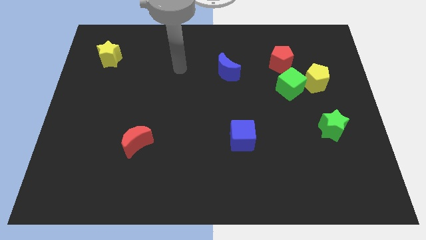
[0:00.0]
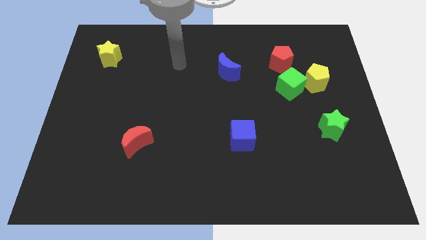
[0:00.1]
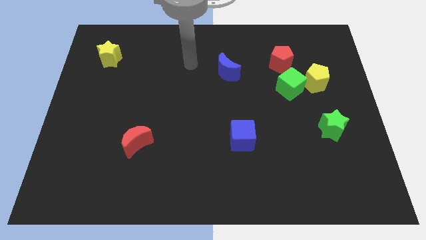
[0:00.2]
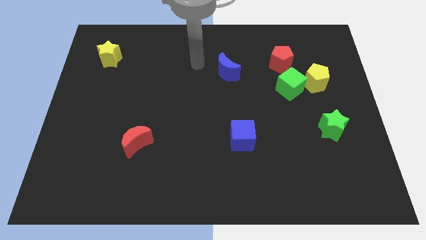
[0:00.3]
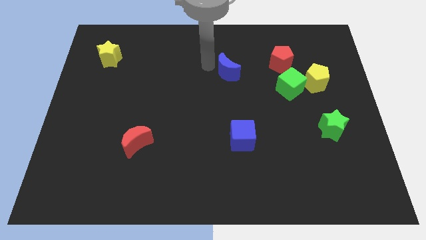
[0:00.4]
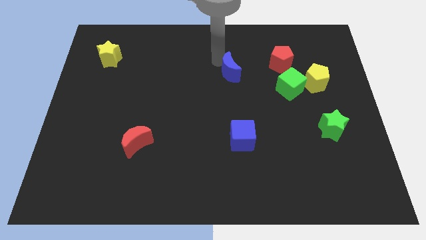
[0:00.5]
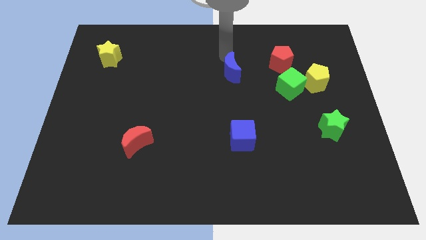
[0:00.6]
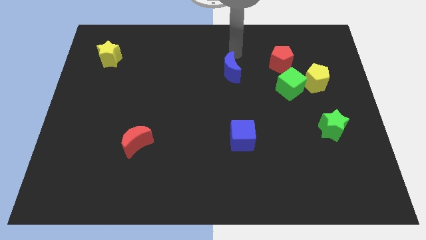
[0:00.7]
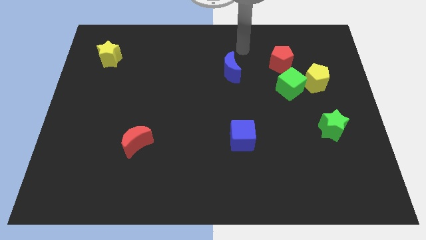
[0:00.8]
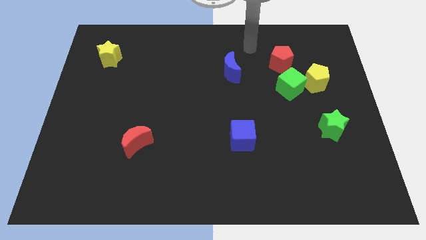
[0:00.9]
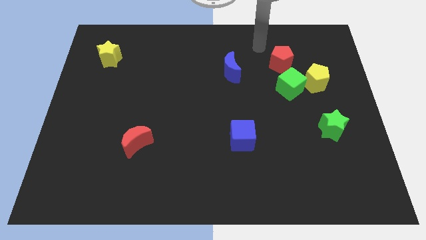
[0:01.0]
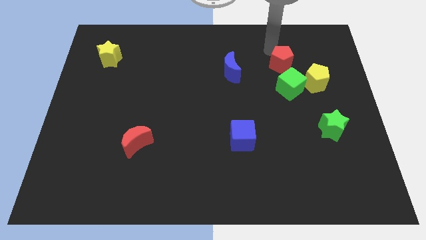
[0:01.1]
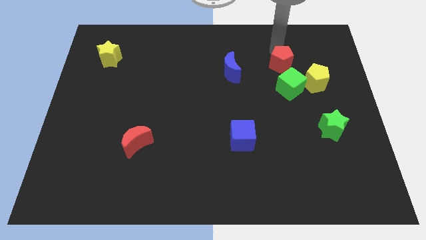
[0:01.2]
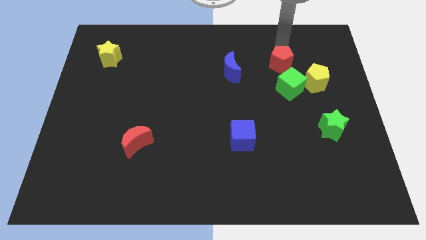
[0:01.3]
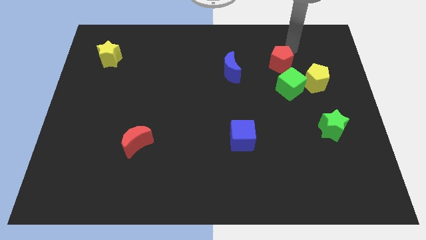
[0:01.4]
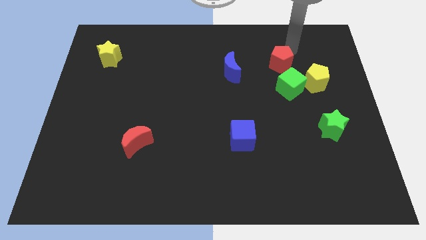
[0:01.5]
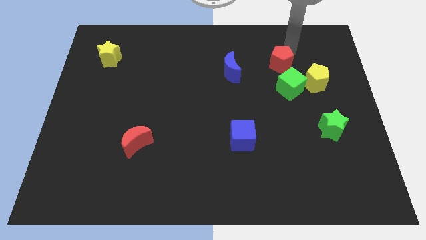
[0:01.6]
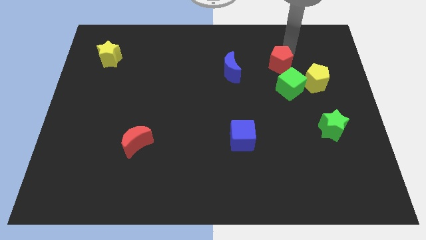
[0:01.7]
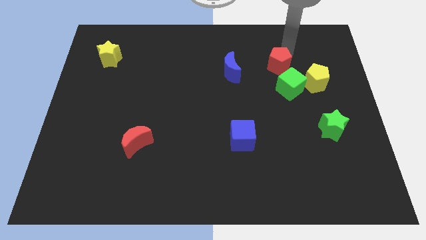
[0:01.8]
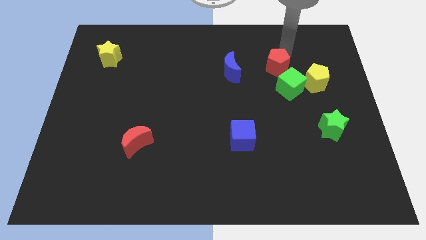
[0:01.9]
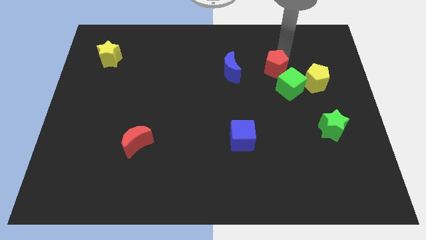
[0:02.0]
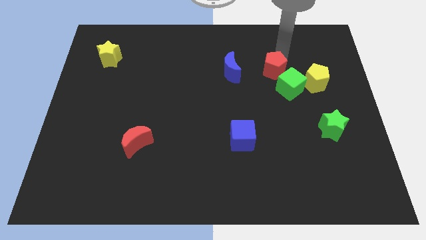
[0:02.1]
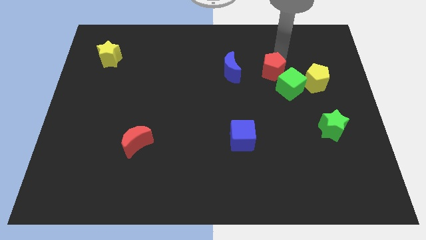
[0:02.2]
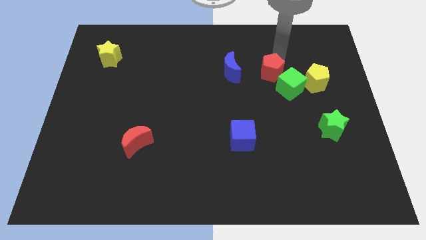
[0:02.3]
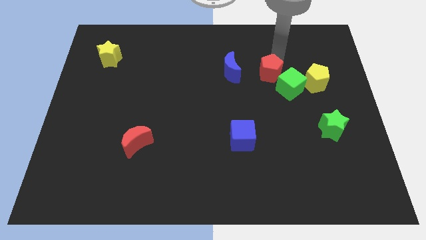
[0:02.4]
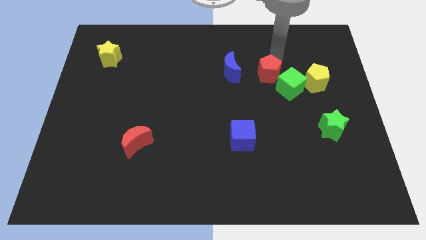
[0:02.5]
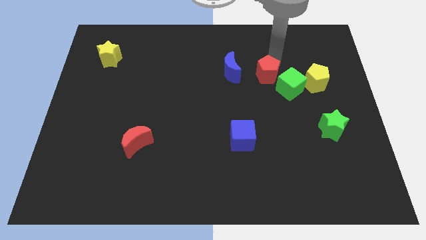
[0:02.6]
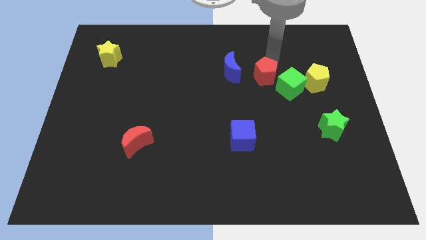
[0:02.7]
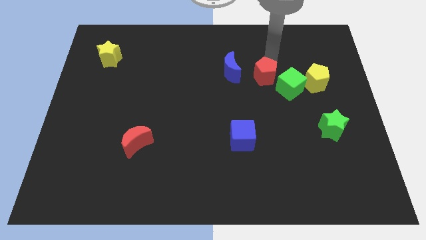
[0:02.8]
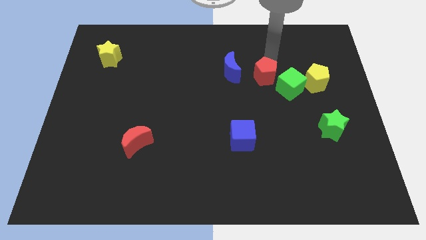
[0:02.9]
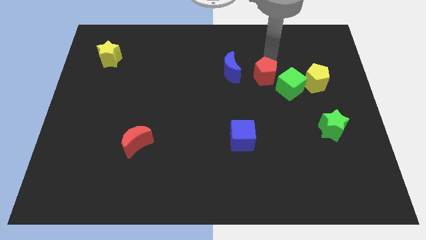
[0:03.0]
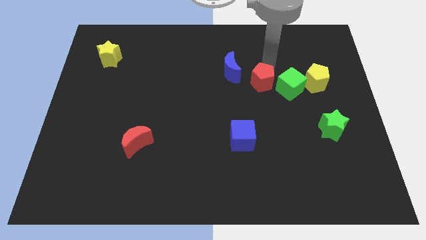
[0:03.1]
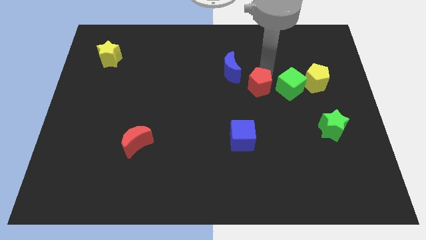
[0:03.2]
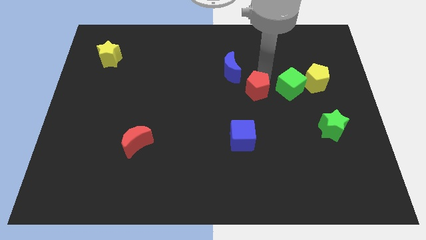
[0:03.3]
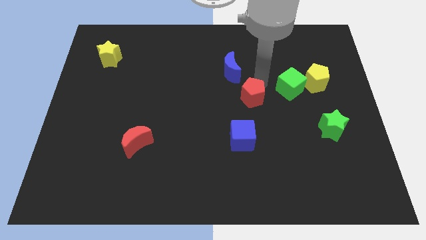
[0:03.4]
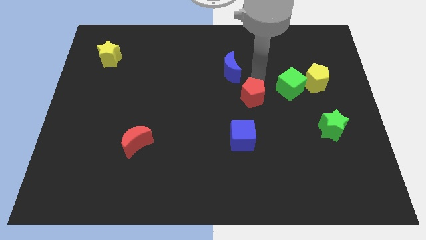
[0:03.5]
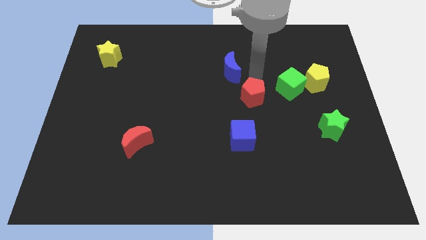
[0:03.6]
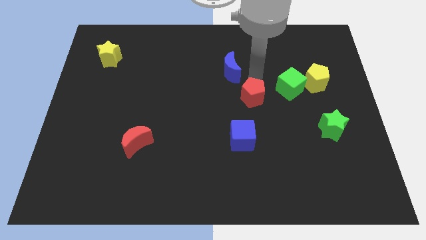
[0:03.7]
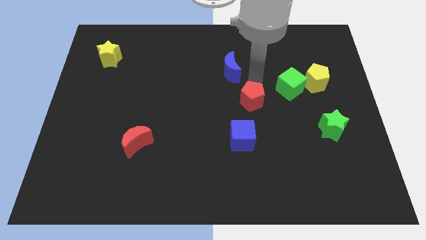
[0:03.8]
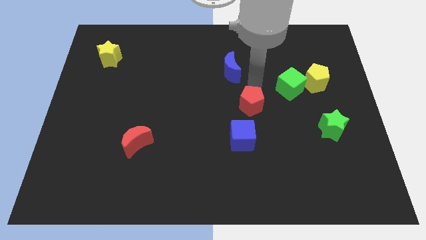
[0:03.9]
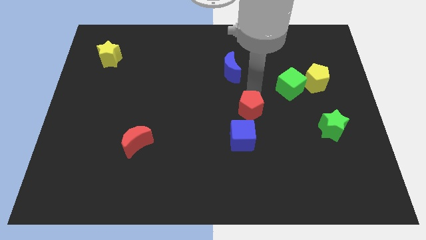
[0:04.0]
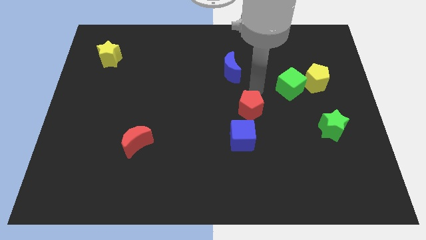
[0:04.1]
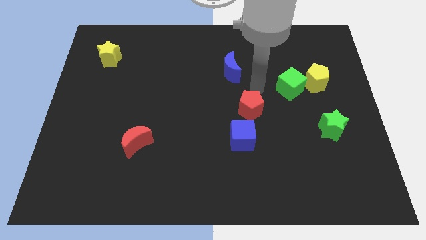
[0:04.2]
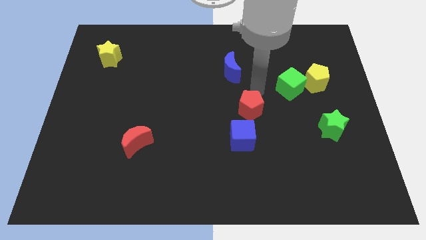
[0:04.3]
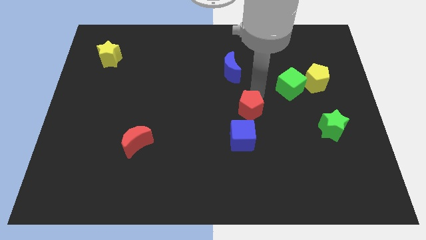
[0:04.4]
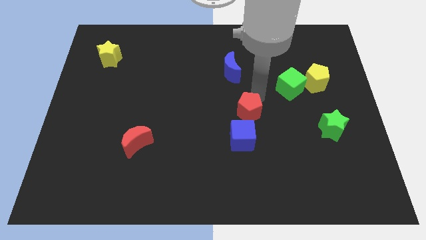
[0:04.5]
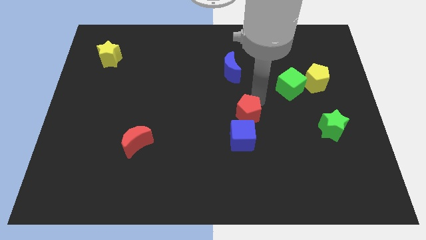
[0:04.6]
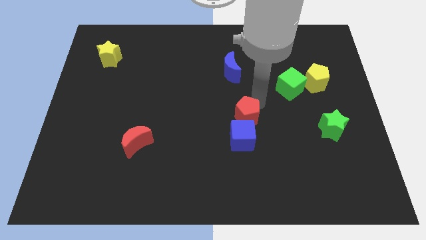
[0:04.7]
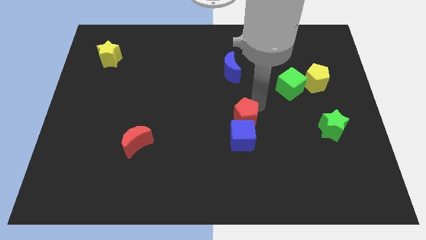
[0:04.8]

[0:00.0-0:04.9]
slide the red pentagon to the blue cube

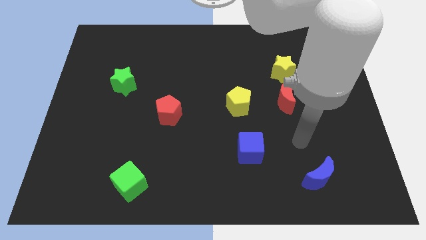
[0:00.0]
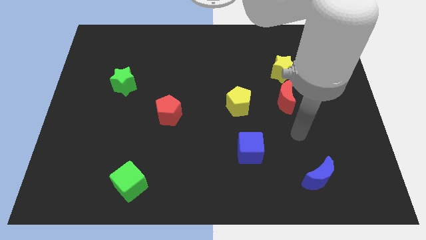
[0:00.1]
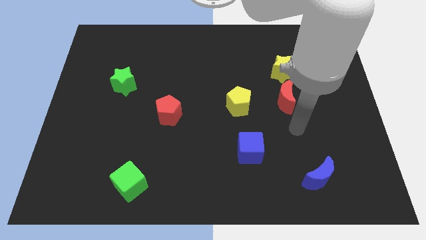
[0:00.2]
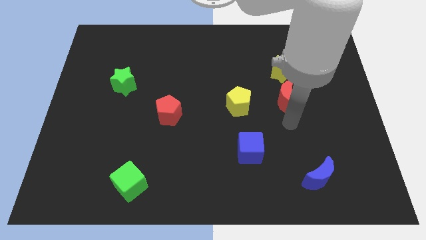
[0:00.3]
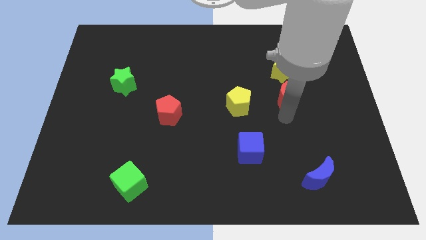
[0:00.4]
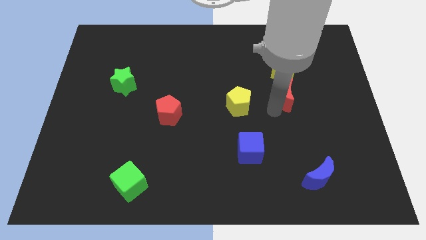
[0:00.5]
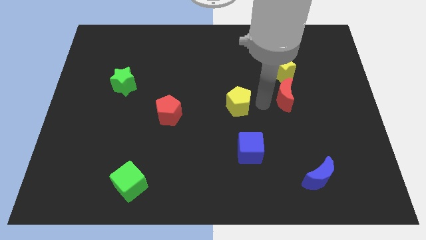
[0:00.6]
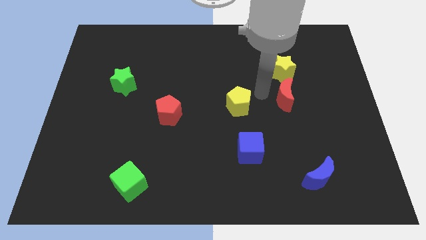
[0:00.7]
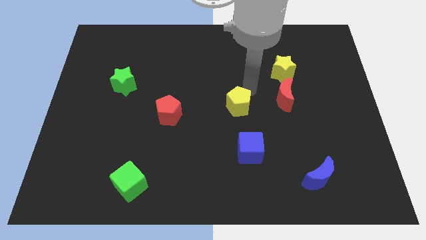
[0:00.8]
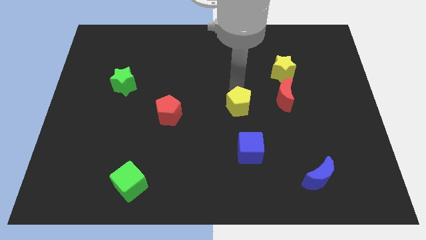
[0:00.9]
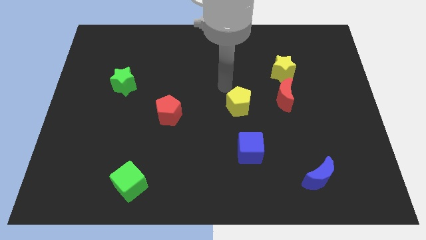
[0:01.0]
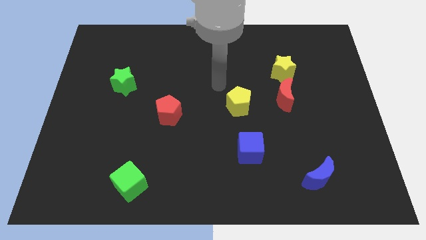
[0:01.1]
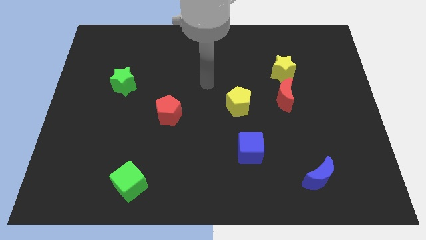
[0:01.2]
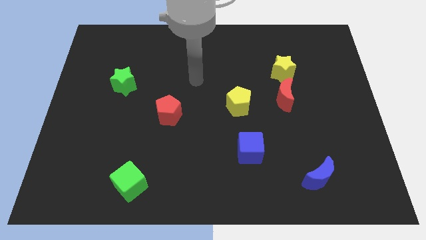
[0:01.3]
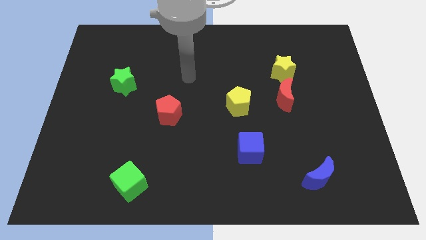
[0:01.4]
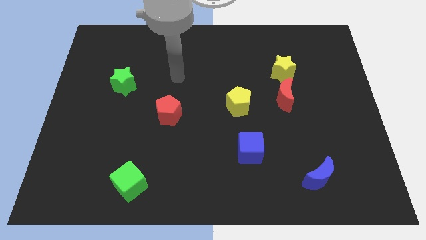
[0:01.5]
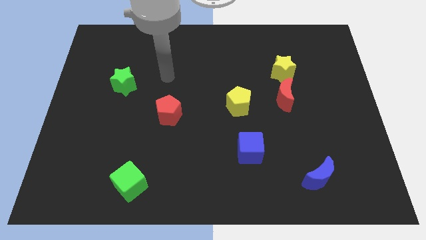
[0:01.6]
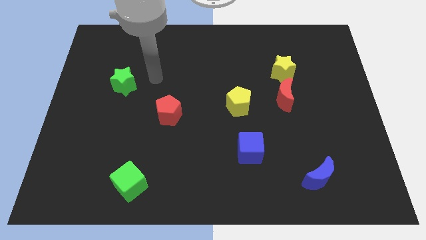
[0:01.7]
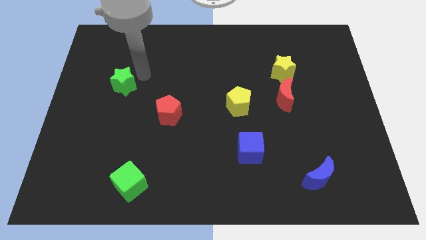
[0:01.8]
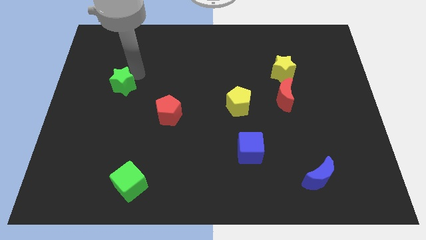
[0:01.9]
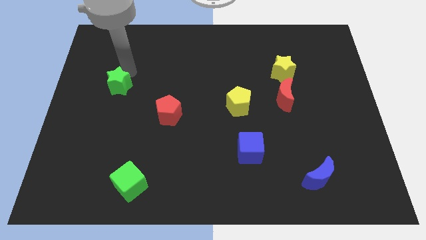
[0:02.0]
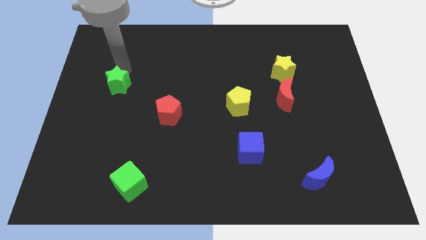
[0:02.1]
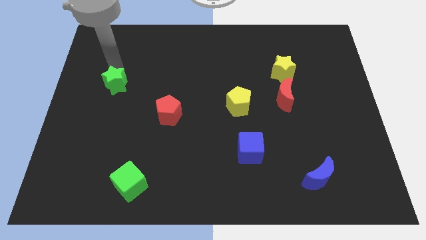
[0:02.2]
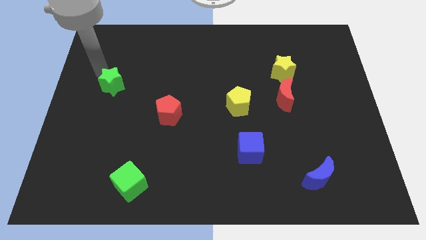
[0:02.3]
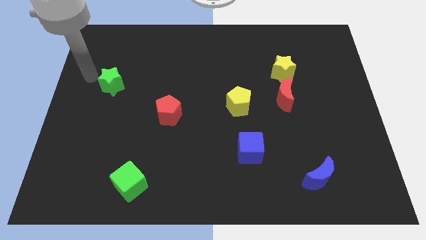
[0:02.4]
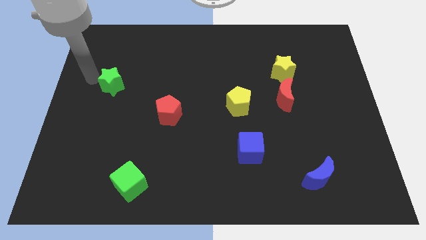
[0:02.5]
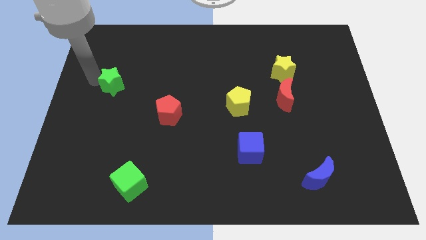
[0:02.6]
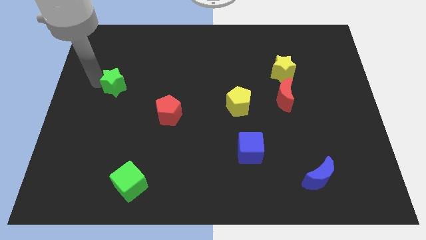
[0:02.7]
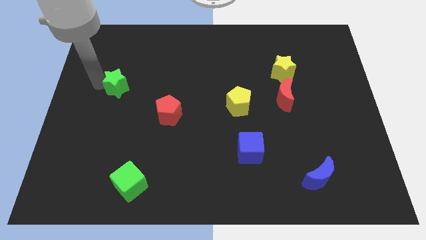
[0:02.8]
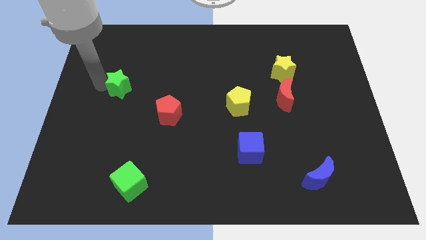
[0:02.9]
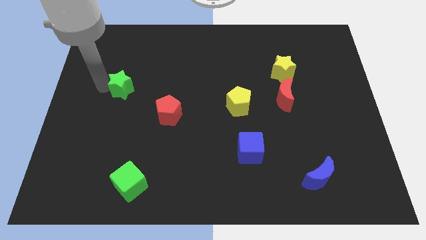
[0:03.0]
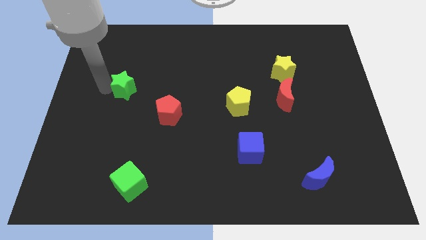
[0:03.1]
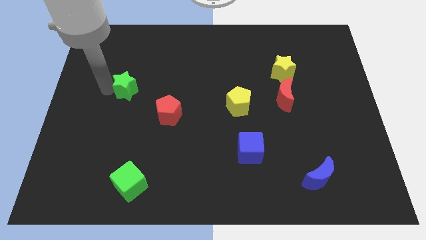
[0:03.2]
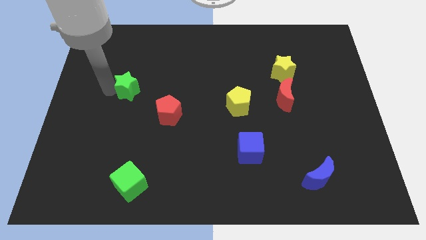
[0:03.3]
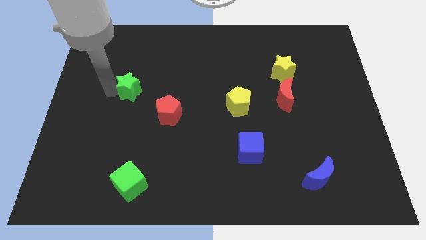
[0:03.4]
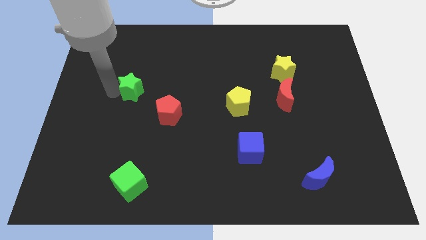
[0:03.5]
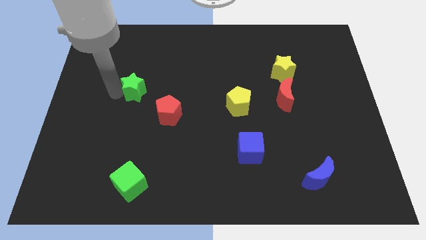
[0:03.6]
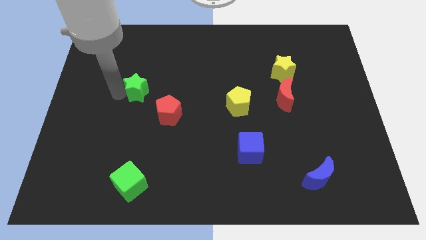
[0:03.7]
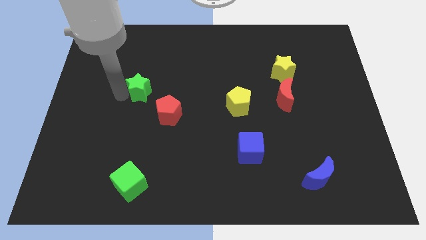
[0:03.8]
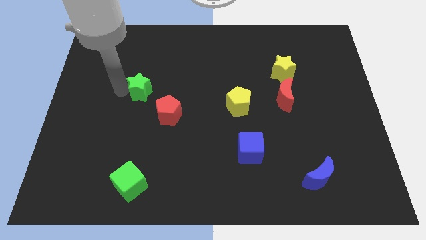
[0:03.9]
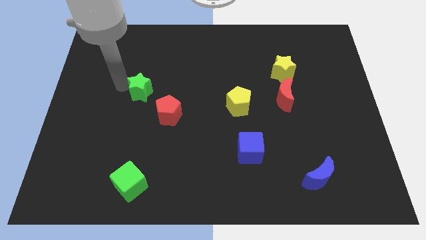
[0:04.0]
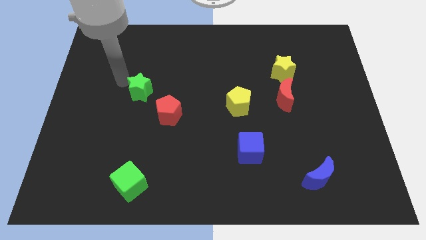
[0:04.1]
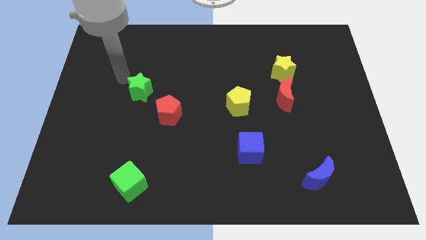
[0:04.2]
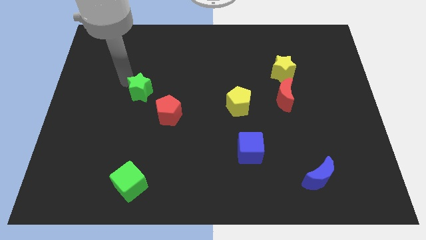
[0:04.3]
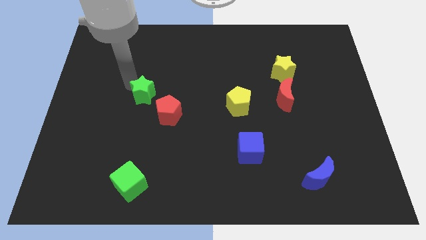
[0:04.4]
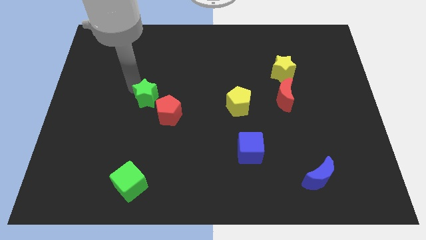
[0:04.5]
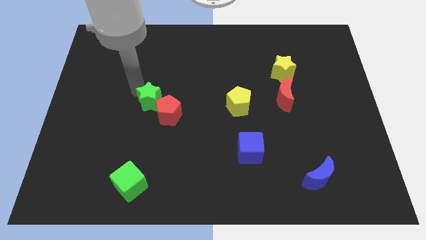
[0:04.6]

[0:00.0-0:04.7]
slide the green star next to the red pentagon
